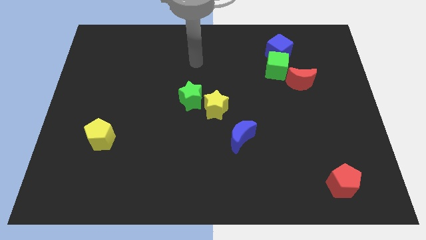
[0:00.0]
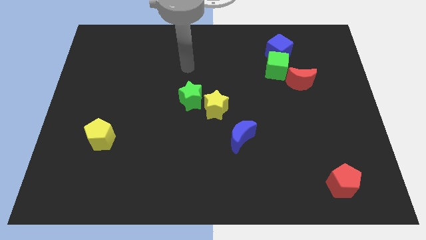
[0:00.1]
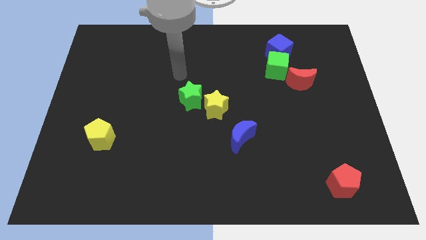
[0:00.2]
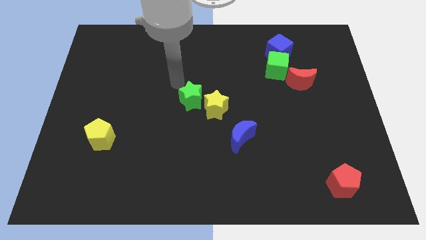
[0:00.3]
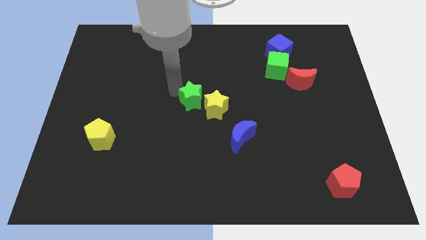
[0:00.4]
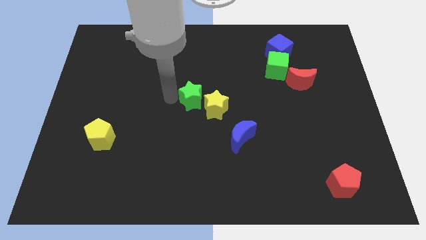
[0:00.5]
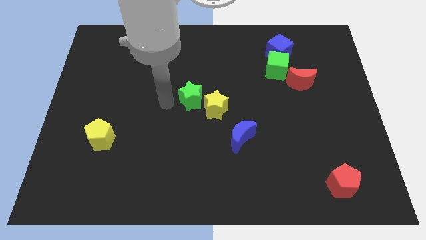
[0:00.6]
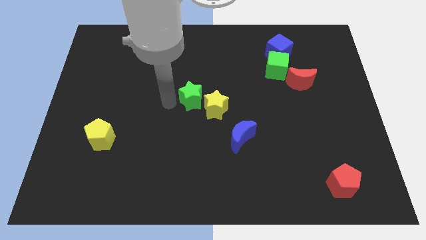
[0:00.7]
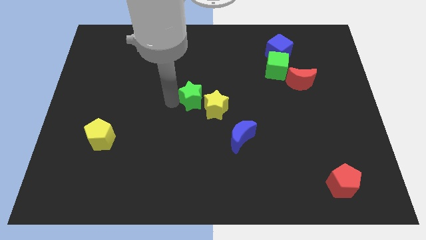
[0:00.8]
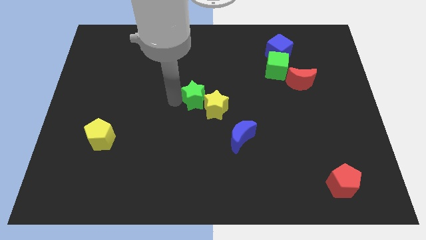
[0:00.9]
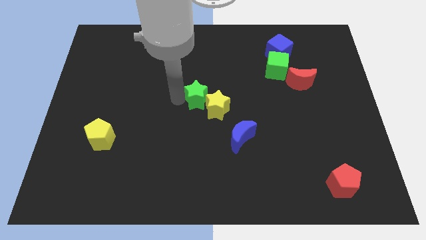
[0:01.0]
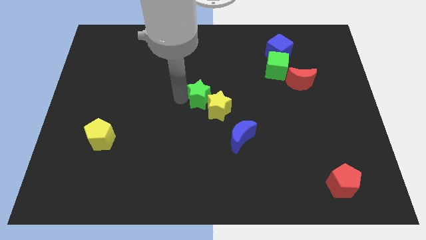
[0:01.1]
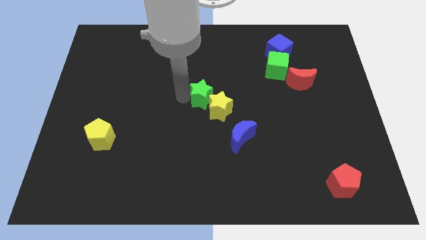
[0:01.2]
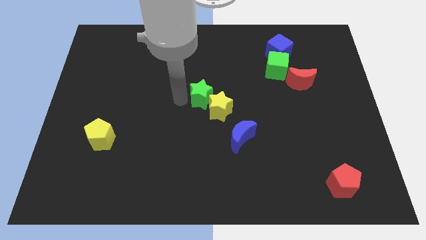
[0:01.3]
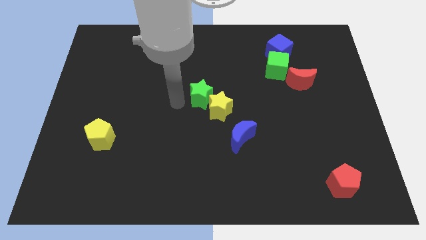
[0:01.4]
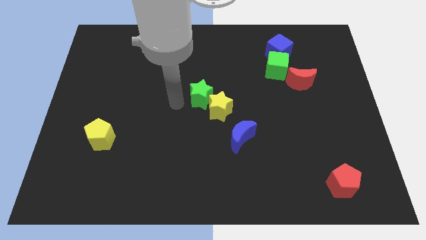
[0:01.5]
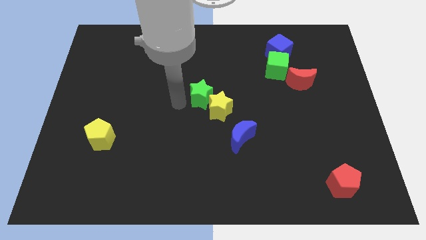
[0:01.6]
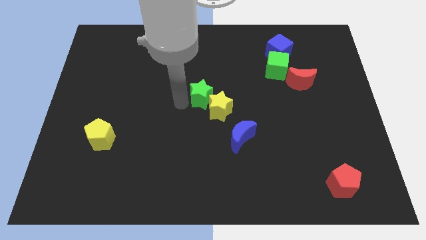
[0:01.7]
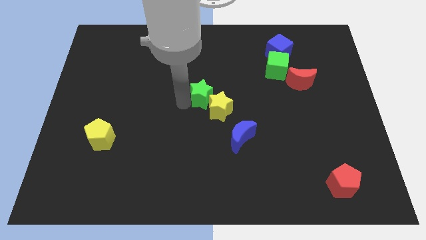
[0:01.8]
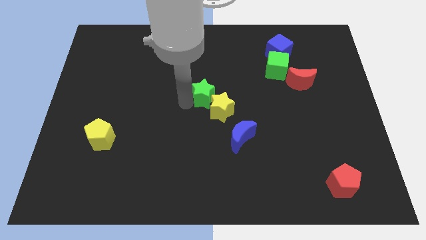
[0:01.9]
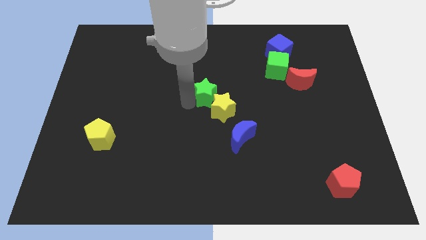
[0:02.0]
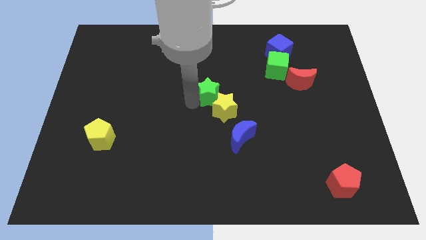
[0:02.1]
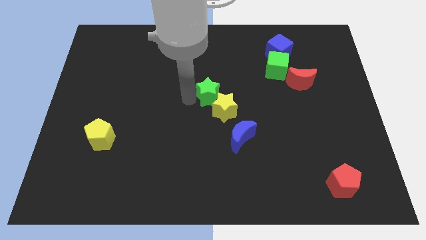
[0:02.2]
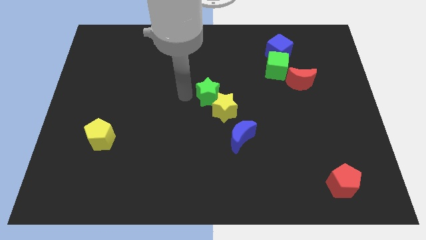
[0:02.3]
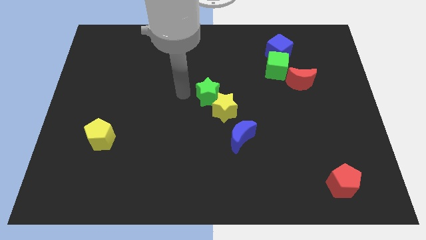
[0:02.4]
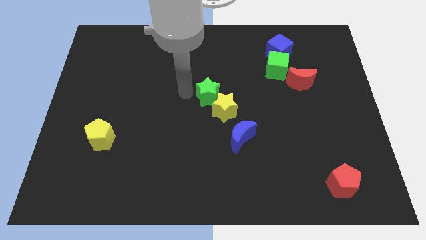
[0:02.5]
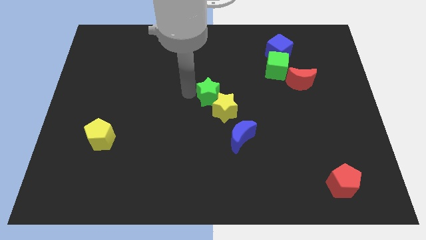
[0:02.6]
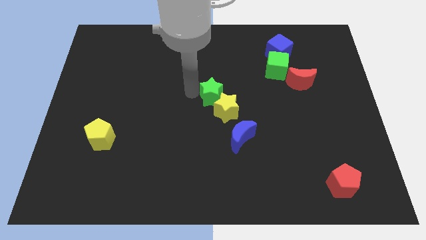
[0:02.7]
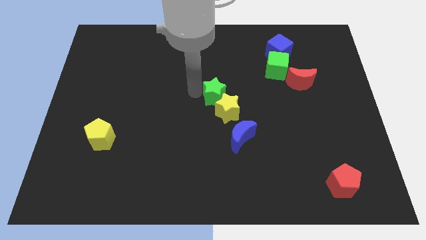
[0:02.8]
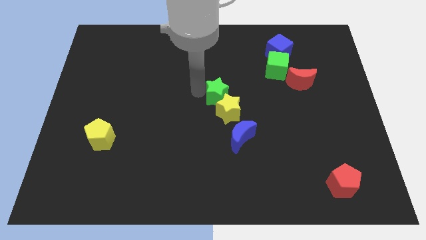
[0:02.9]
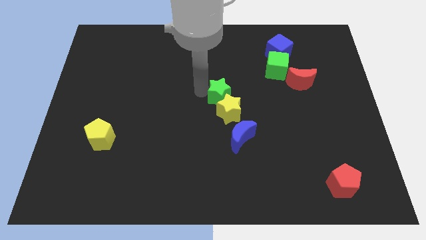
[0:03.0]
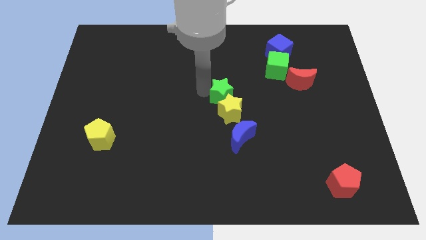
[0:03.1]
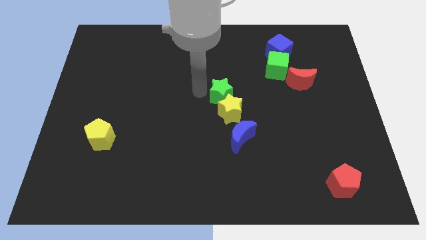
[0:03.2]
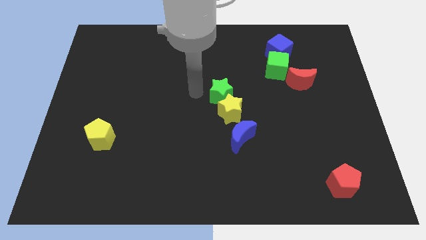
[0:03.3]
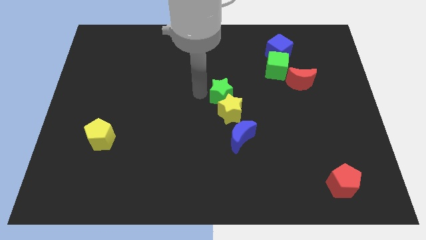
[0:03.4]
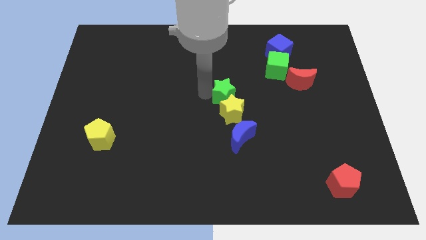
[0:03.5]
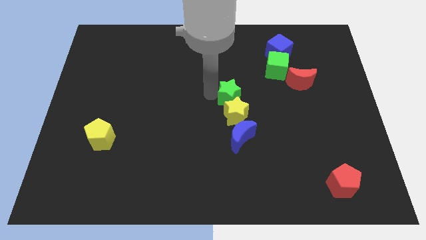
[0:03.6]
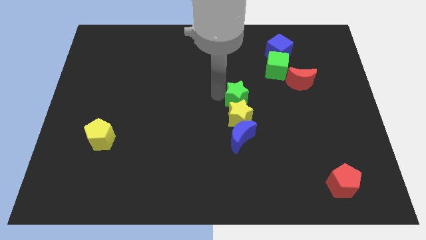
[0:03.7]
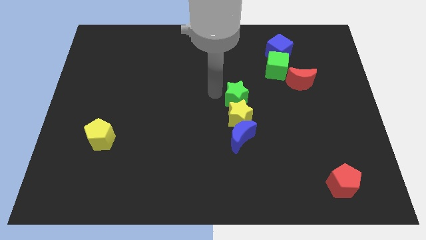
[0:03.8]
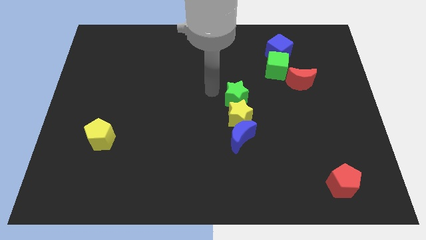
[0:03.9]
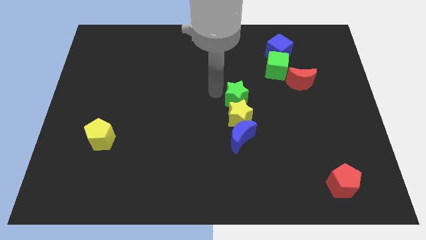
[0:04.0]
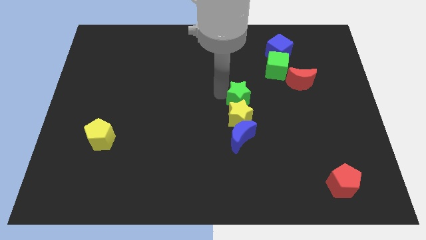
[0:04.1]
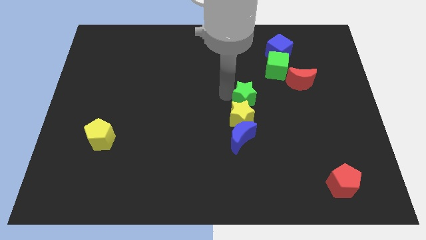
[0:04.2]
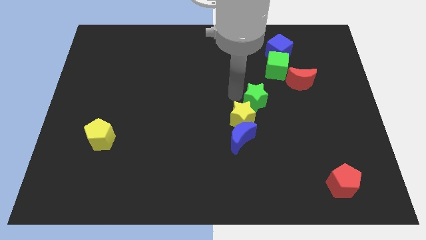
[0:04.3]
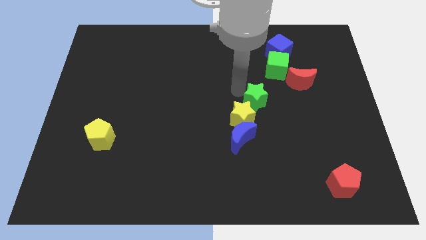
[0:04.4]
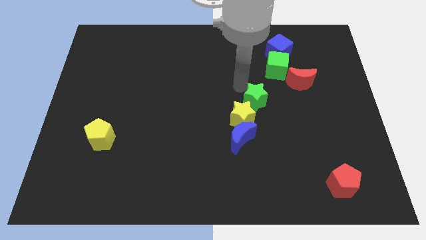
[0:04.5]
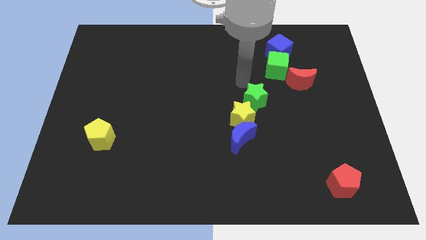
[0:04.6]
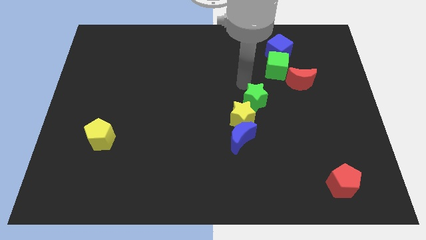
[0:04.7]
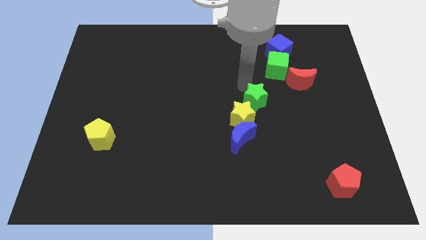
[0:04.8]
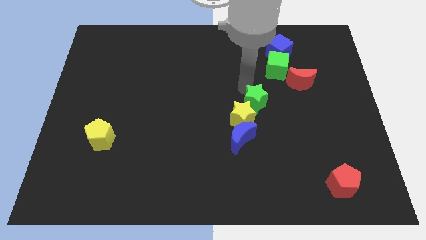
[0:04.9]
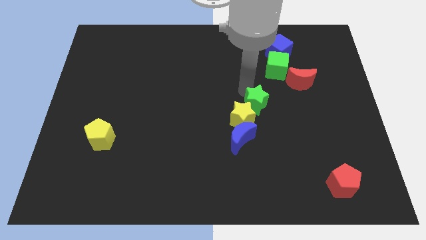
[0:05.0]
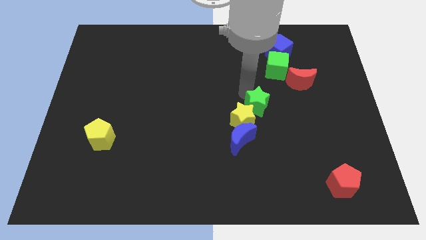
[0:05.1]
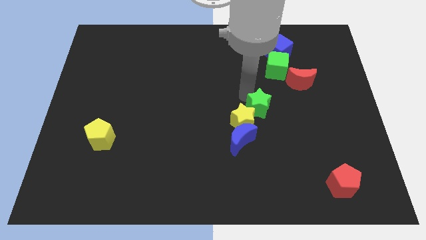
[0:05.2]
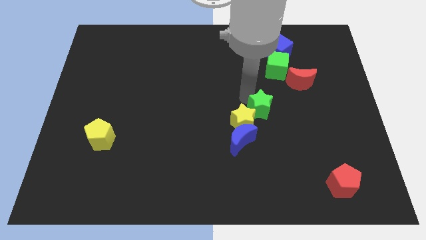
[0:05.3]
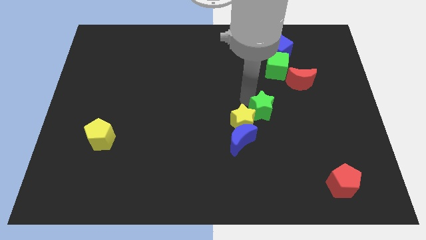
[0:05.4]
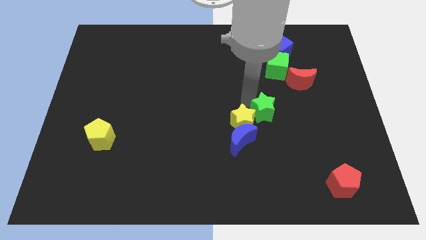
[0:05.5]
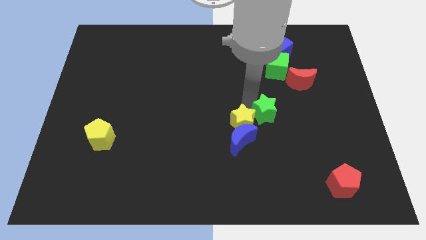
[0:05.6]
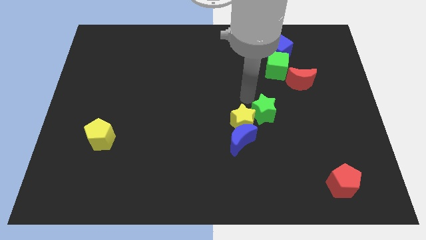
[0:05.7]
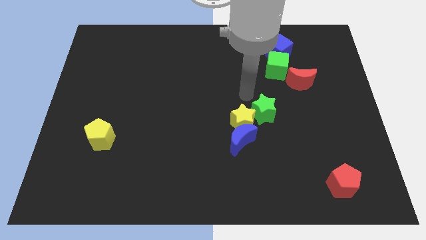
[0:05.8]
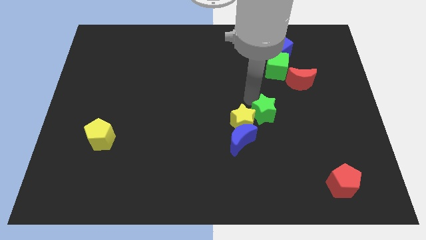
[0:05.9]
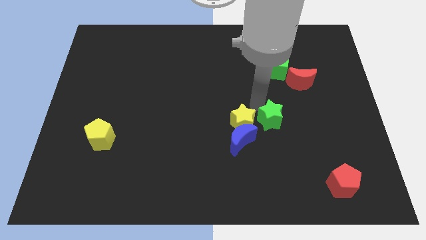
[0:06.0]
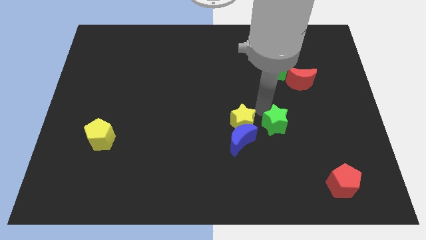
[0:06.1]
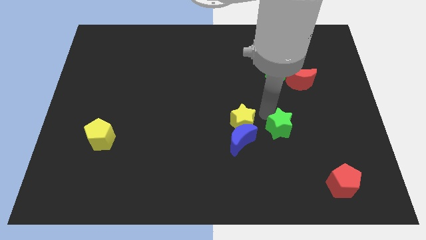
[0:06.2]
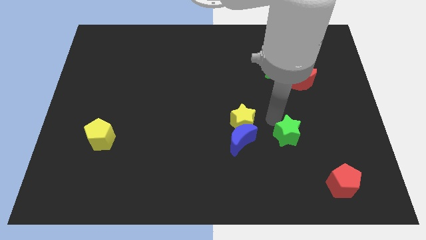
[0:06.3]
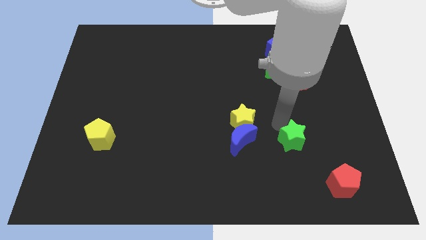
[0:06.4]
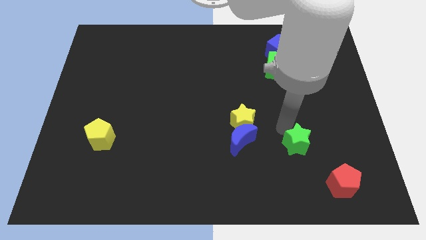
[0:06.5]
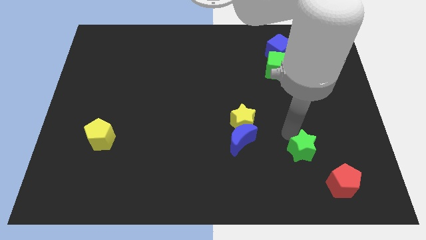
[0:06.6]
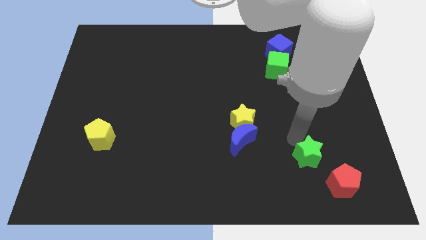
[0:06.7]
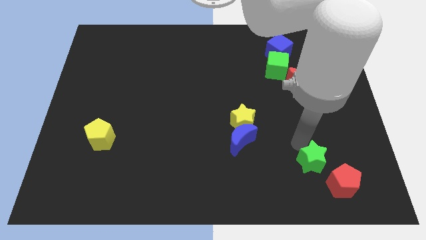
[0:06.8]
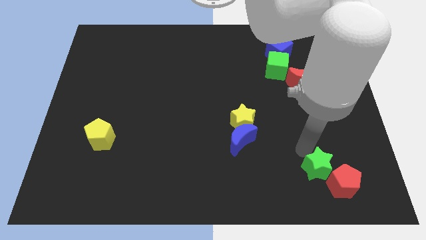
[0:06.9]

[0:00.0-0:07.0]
move the green star towards the red pentagon
